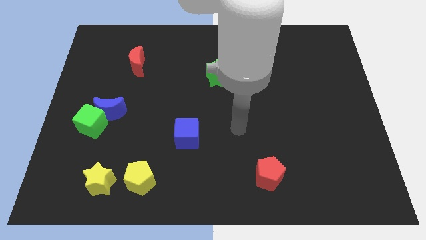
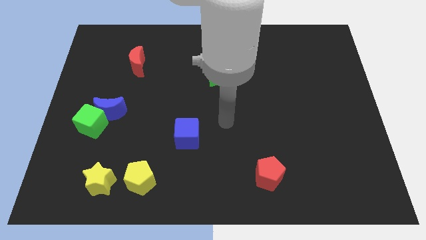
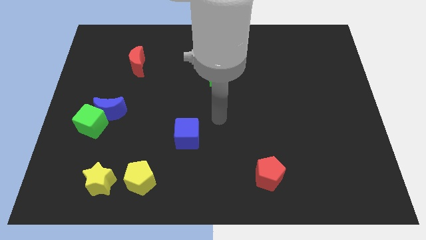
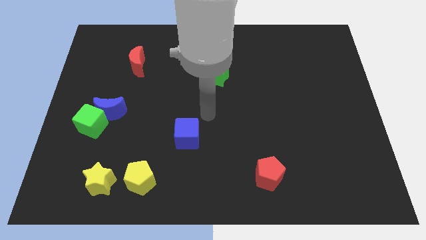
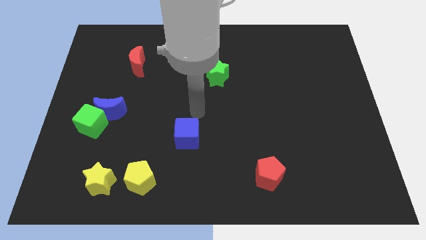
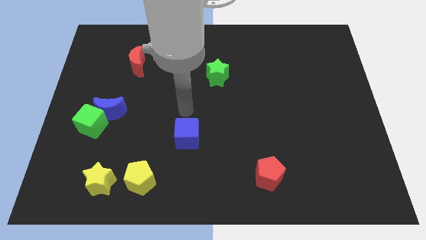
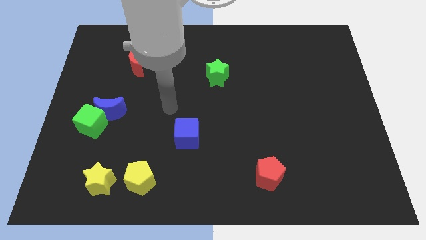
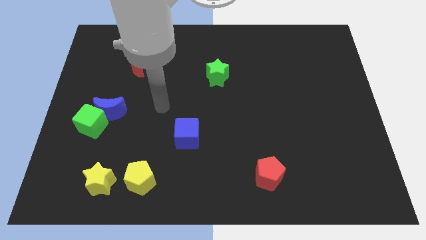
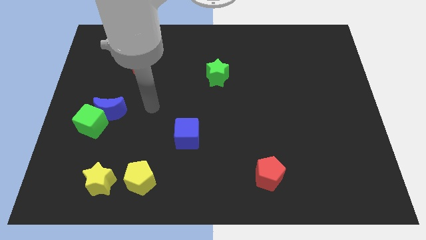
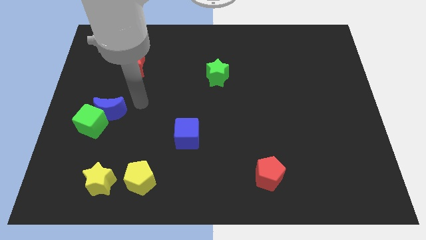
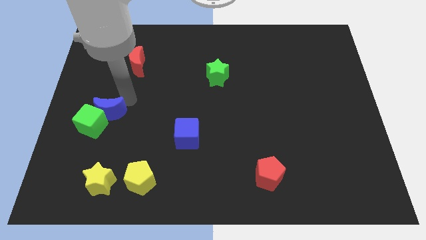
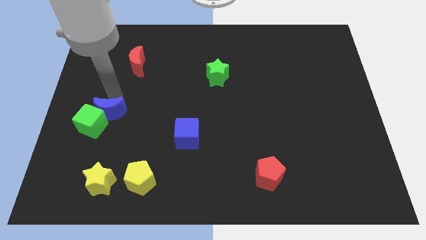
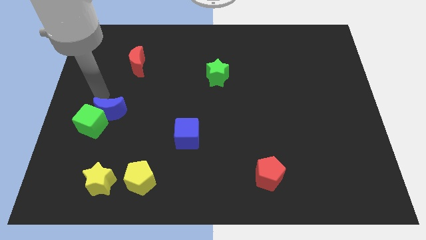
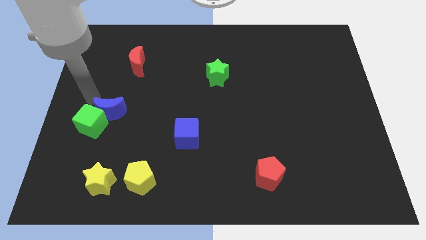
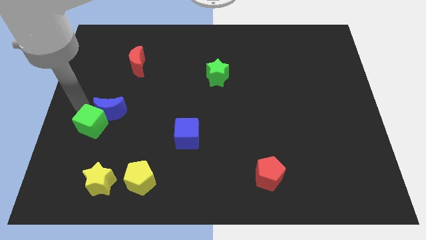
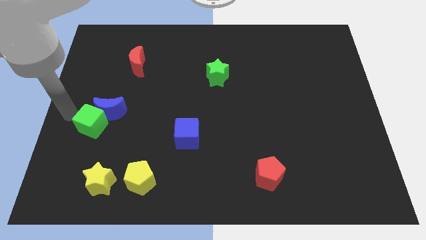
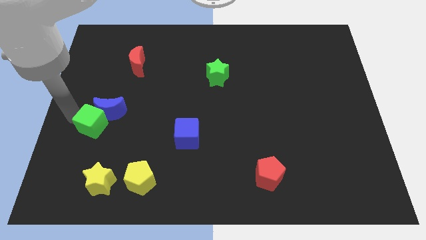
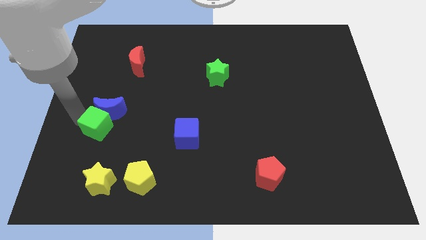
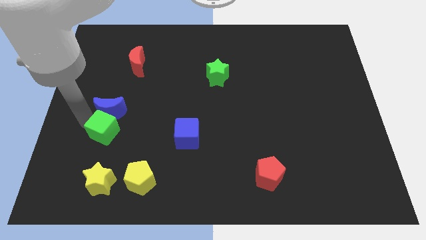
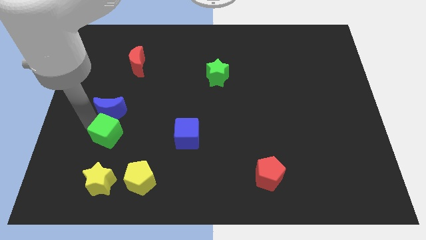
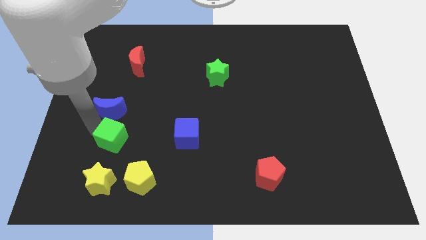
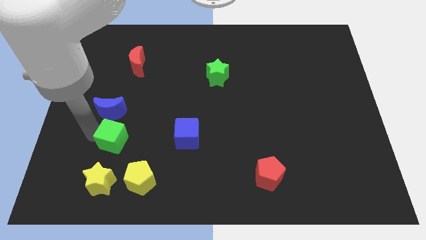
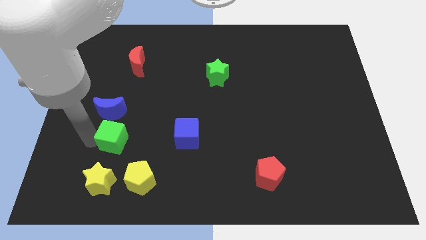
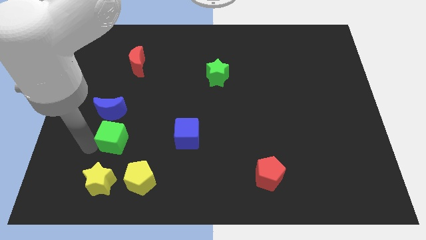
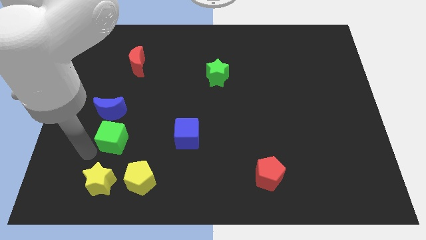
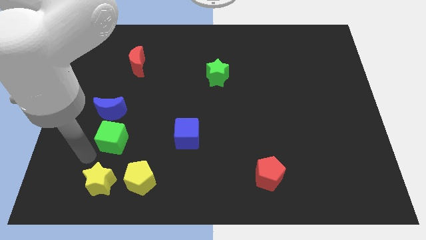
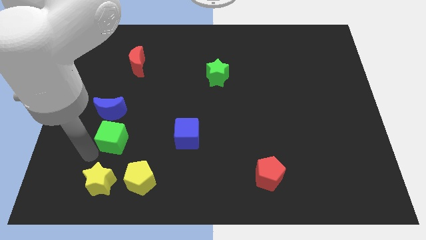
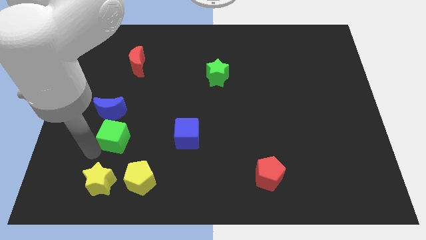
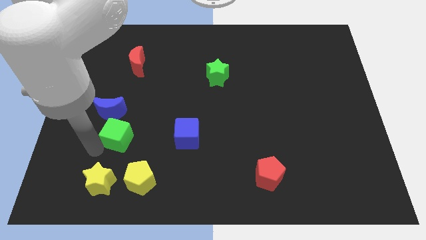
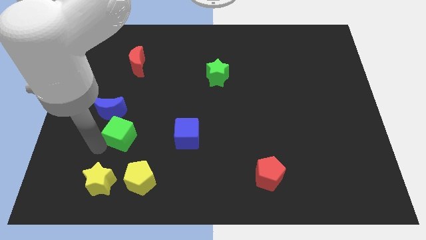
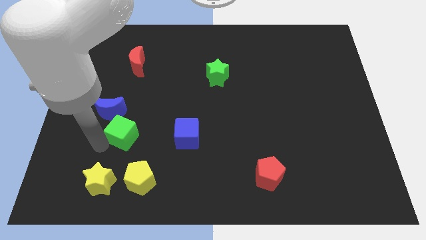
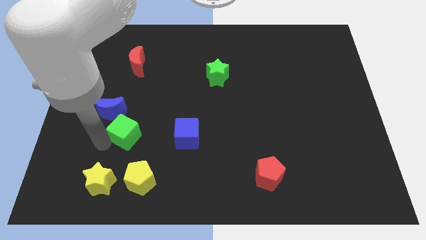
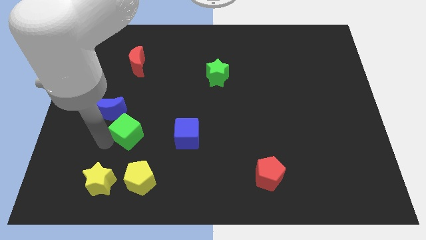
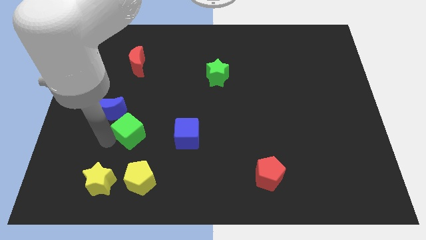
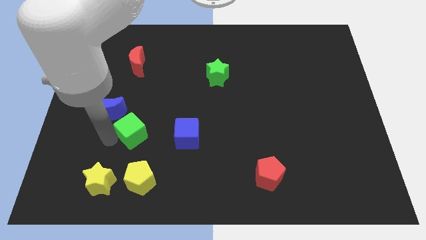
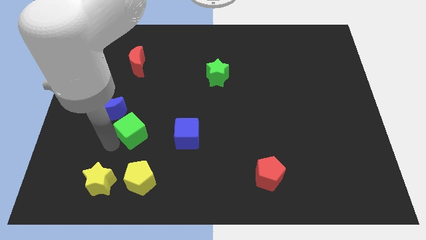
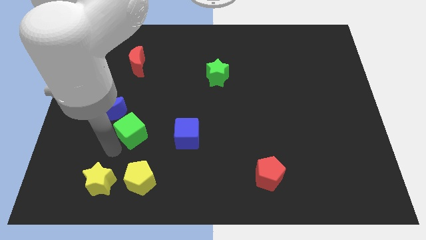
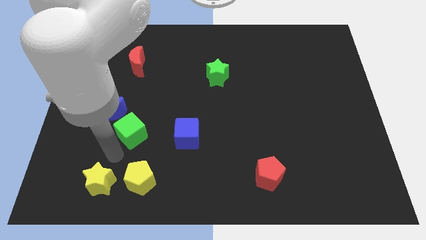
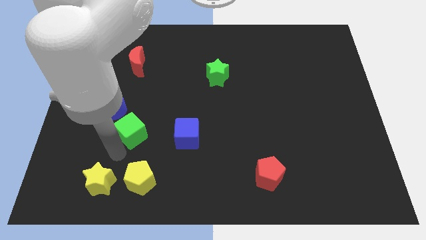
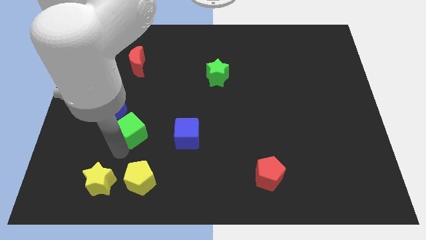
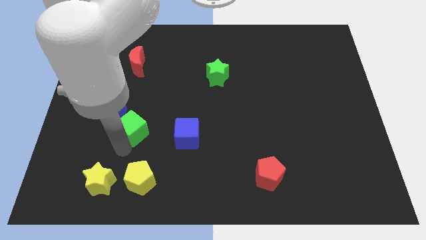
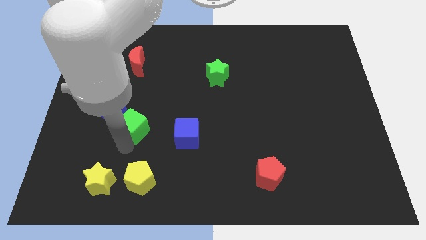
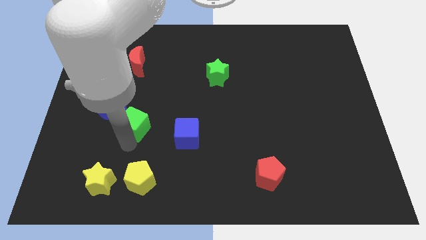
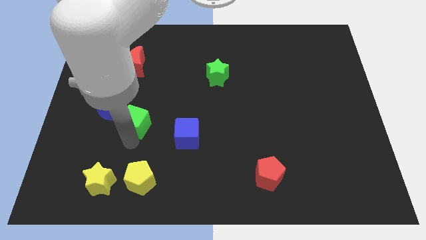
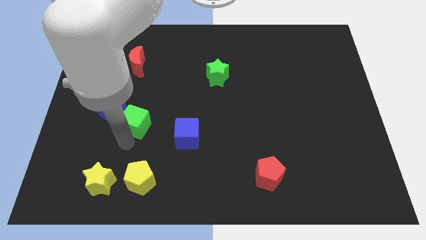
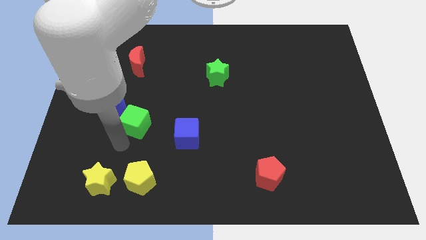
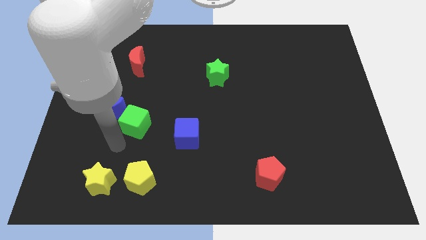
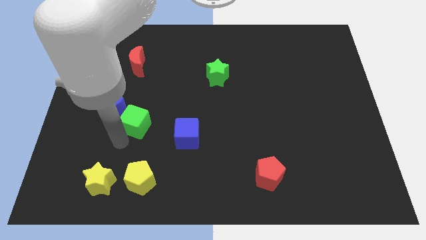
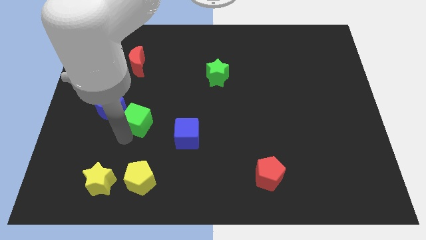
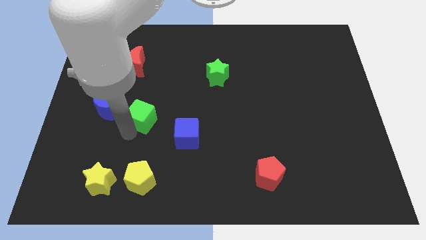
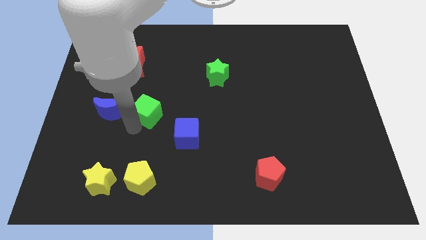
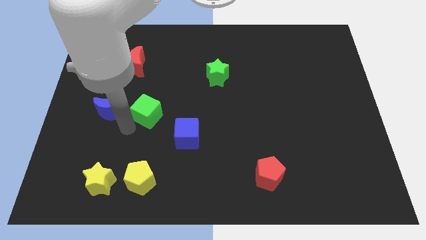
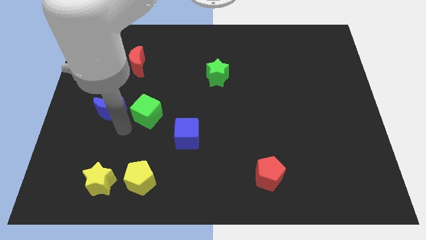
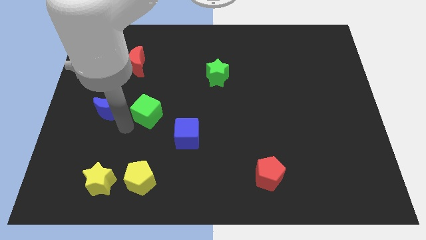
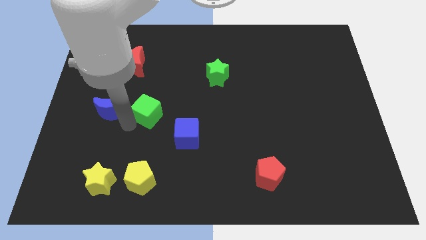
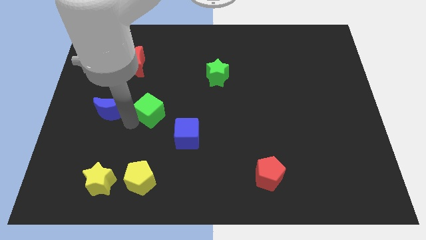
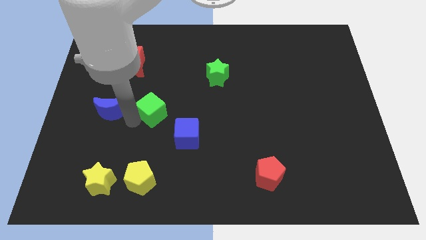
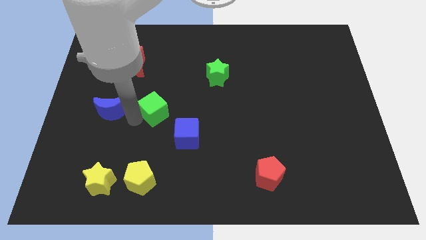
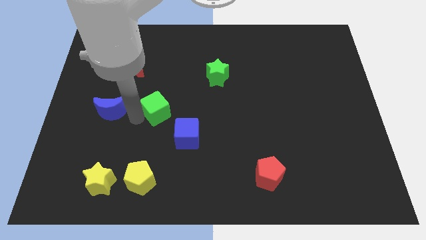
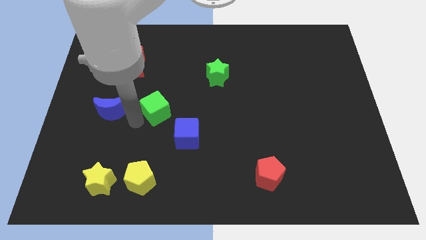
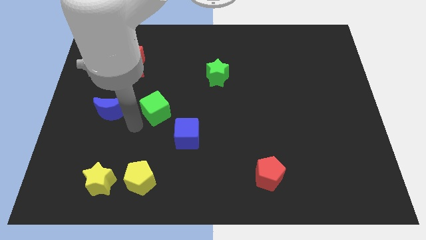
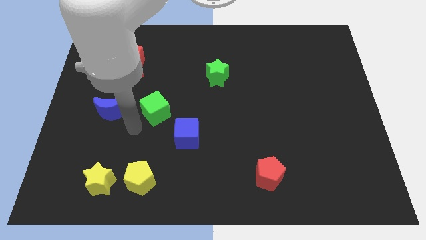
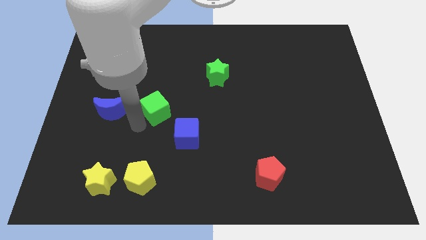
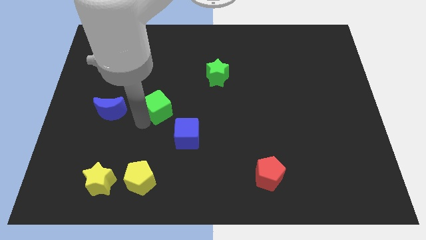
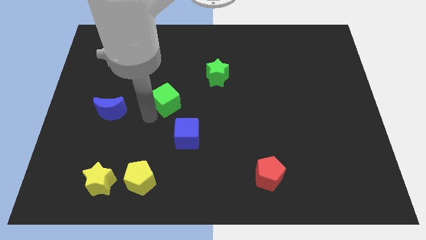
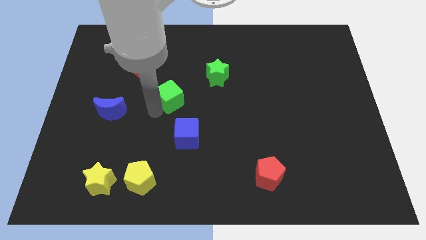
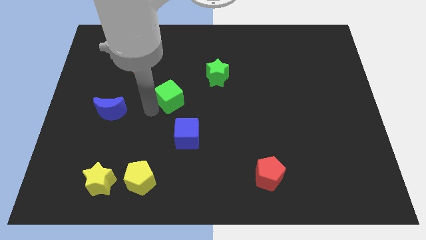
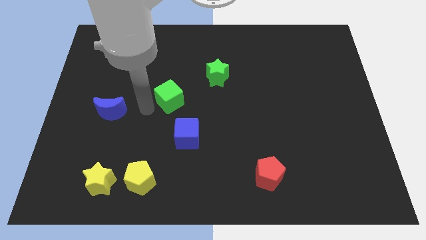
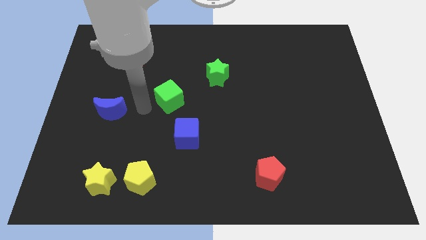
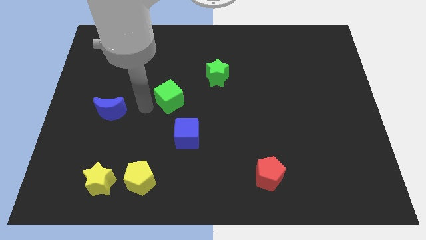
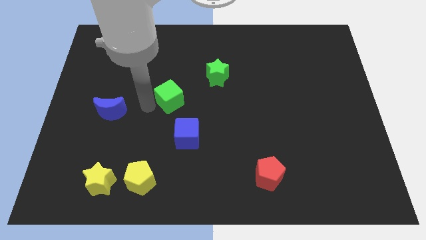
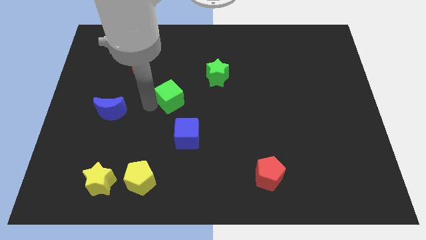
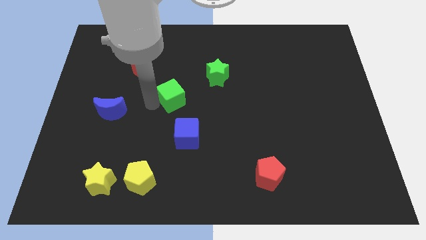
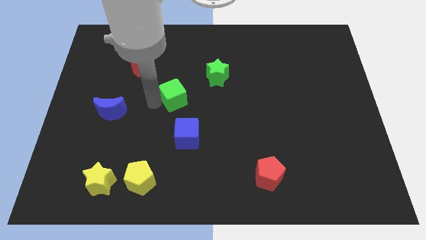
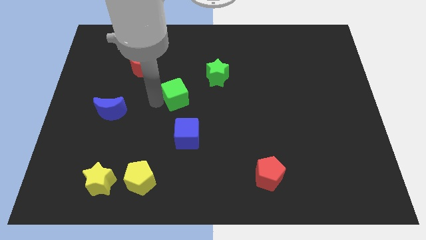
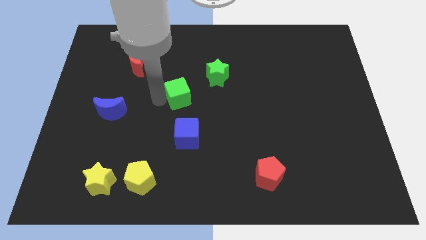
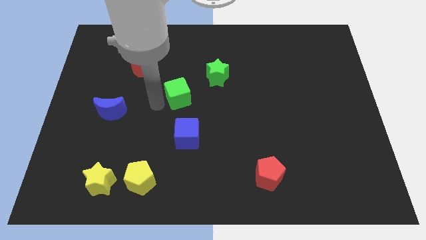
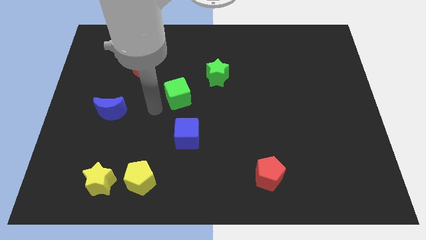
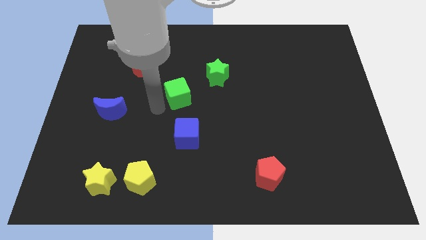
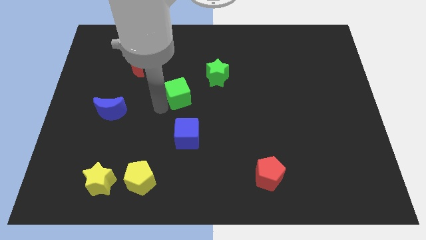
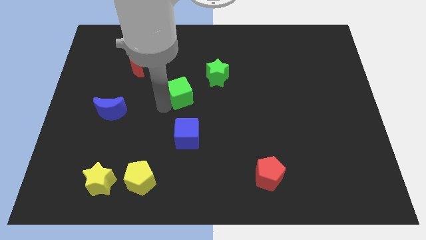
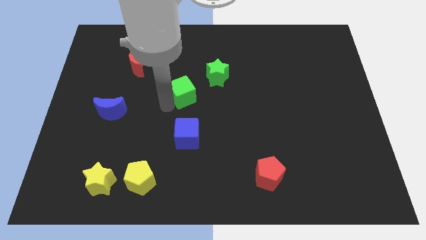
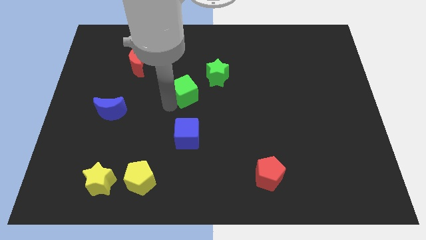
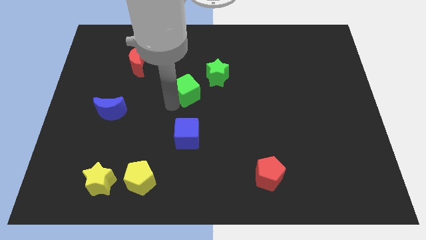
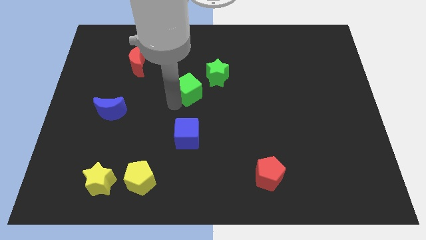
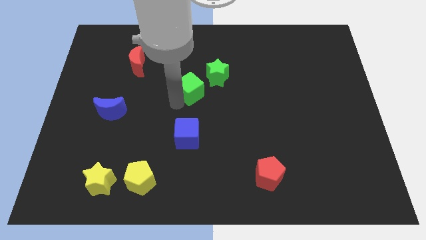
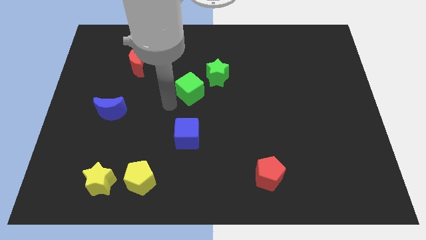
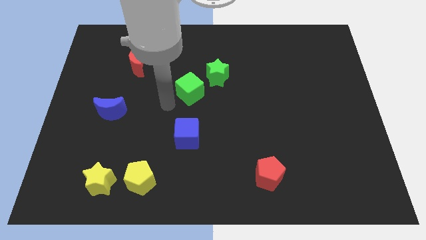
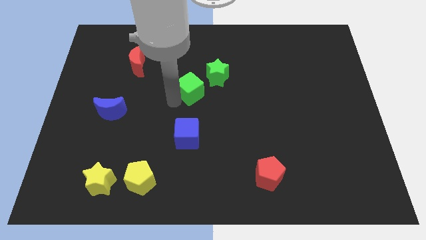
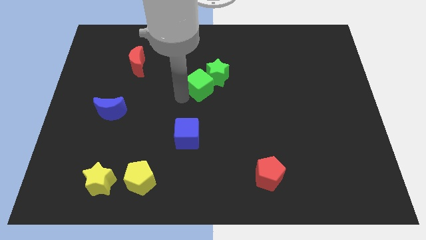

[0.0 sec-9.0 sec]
put the green cube next to the green star
